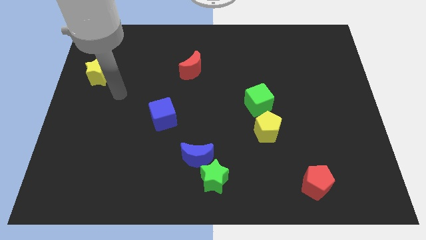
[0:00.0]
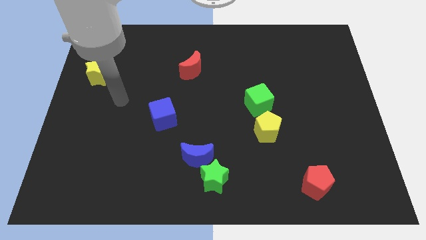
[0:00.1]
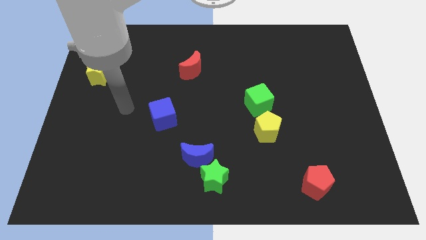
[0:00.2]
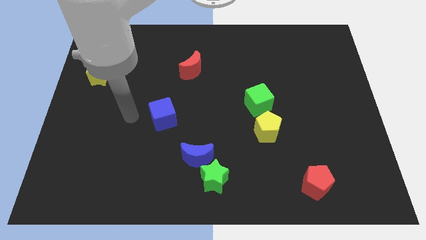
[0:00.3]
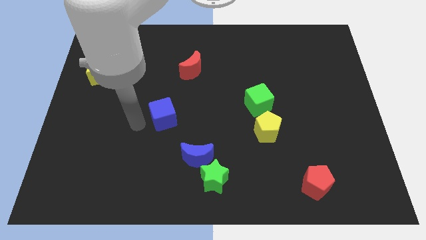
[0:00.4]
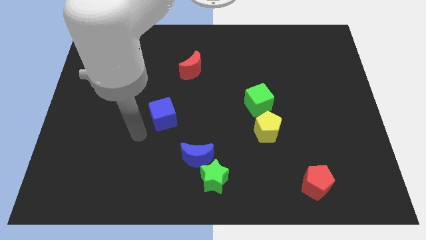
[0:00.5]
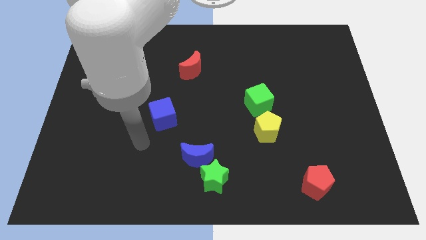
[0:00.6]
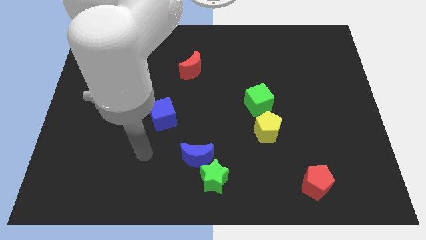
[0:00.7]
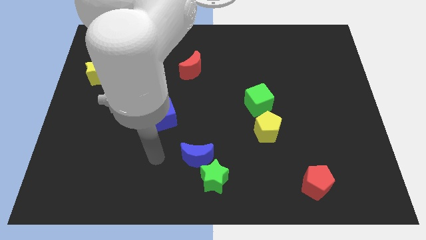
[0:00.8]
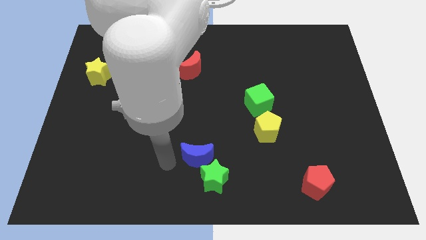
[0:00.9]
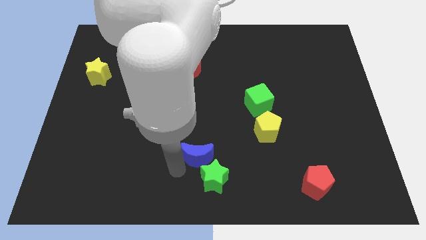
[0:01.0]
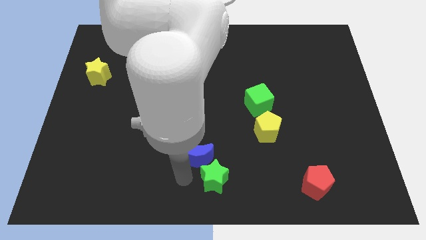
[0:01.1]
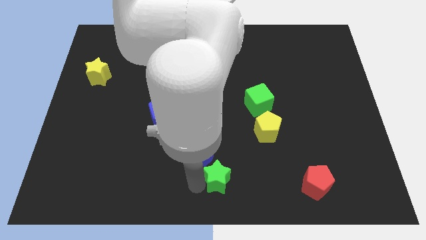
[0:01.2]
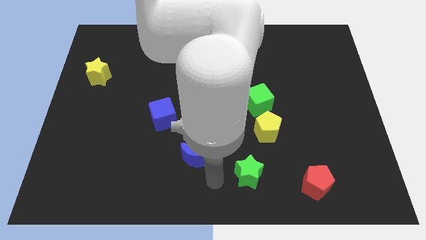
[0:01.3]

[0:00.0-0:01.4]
pull the blue moon apart from the green star

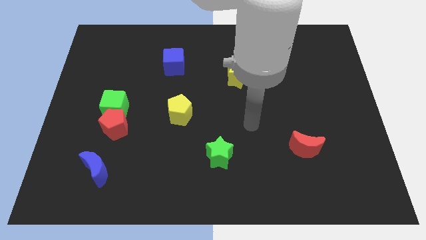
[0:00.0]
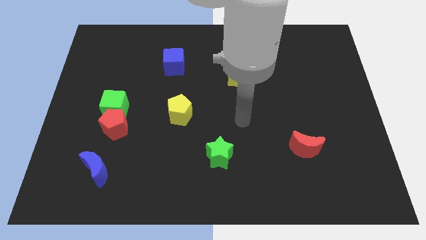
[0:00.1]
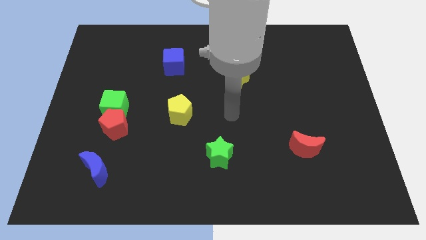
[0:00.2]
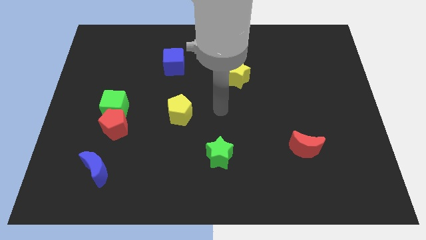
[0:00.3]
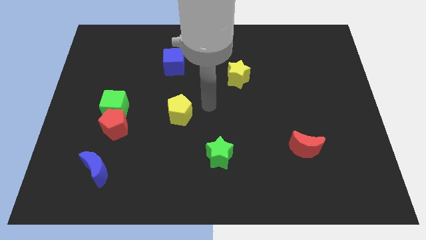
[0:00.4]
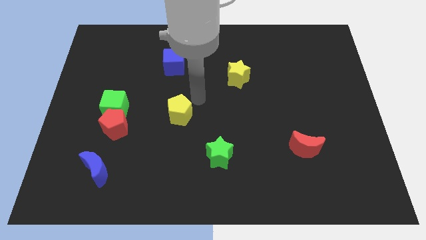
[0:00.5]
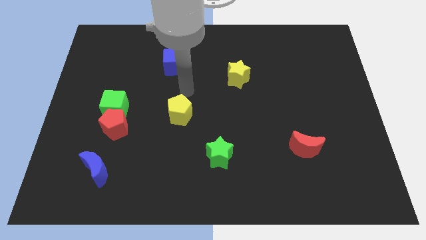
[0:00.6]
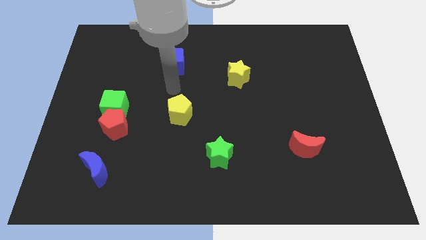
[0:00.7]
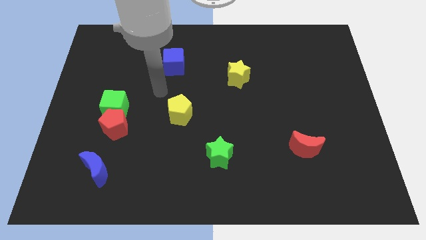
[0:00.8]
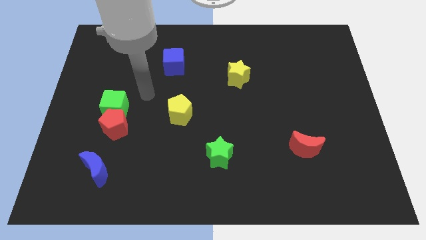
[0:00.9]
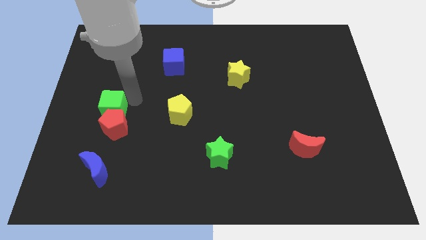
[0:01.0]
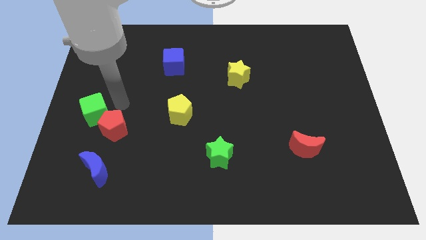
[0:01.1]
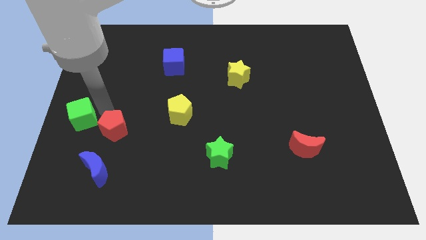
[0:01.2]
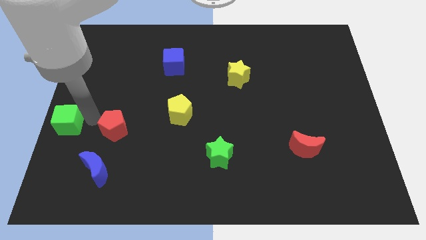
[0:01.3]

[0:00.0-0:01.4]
separate the red pentagon from the green cube

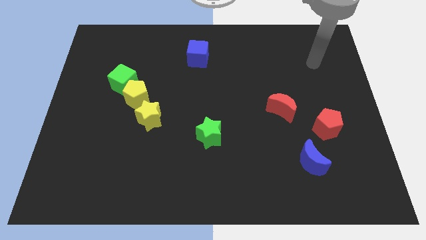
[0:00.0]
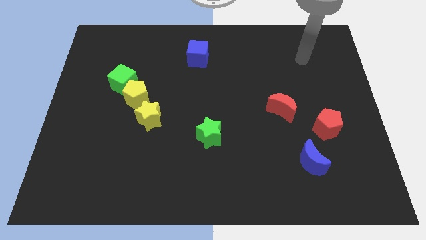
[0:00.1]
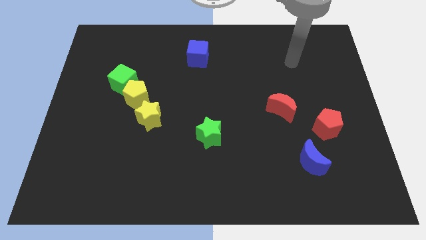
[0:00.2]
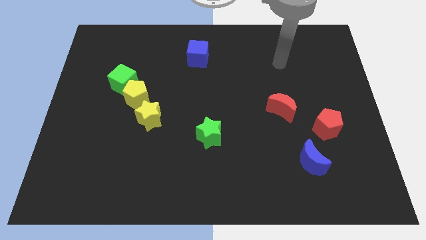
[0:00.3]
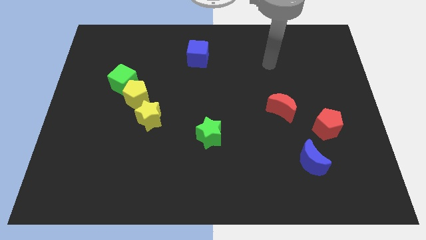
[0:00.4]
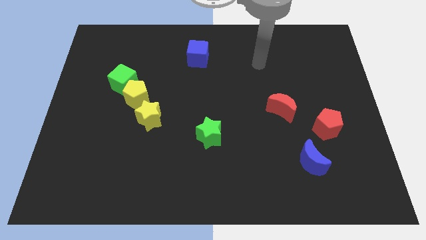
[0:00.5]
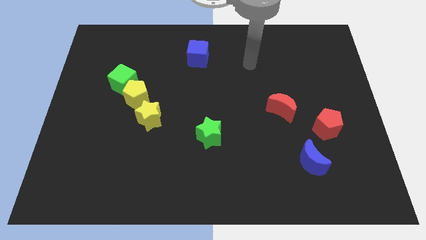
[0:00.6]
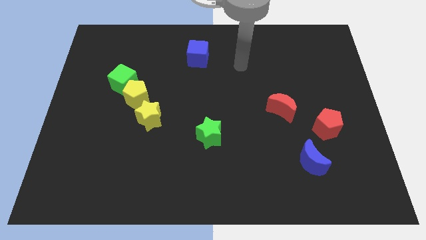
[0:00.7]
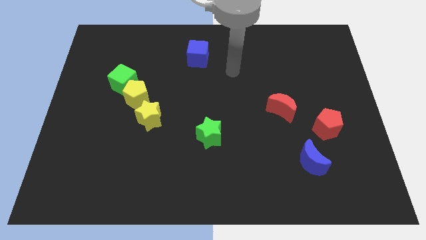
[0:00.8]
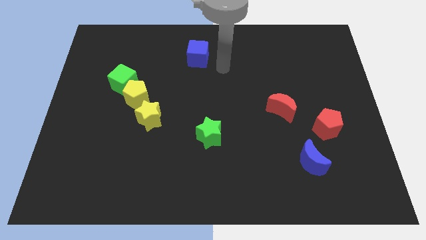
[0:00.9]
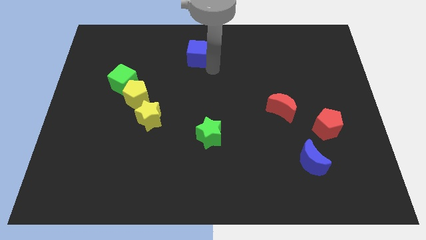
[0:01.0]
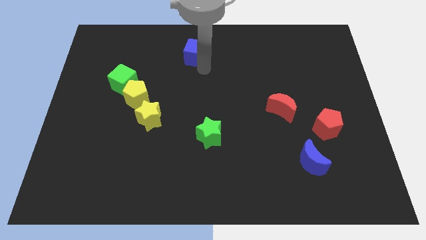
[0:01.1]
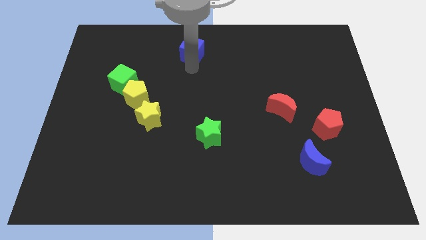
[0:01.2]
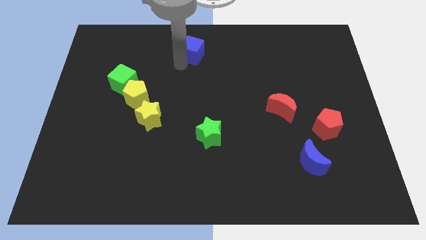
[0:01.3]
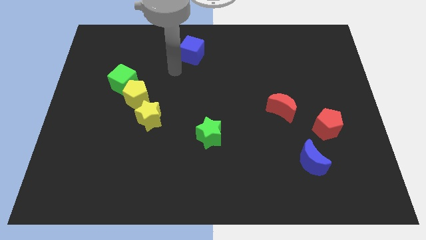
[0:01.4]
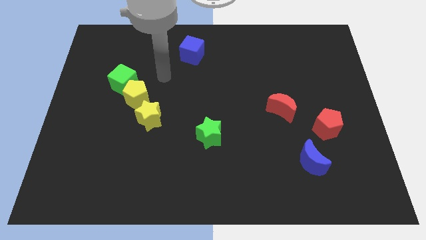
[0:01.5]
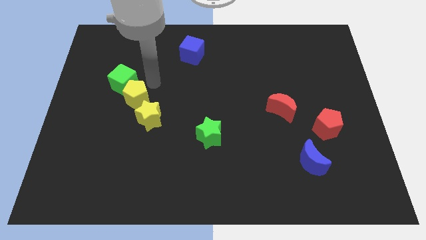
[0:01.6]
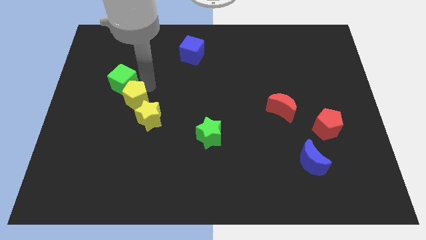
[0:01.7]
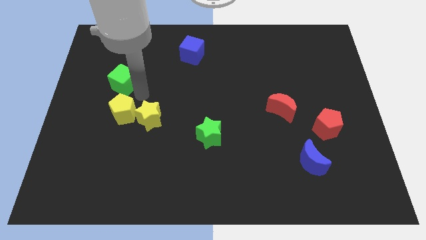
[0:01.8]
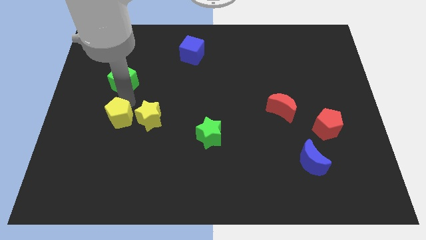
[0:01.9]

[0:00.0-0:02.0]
pull the green cube apart from the yellow pentagon

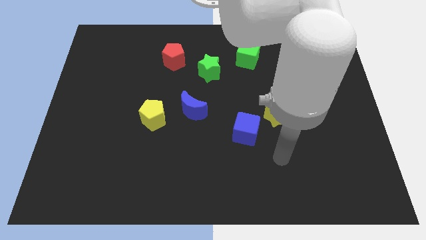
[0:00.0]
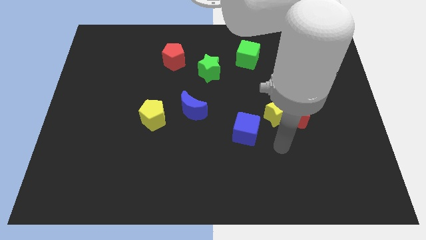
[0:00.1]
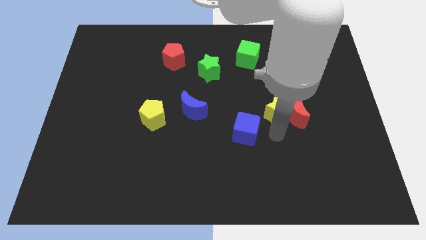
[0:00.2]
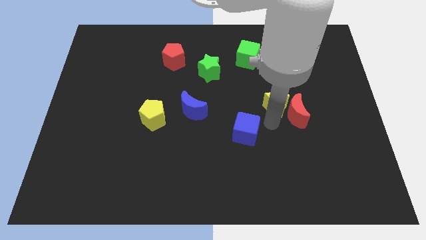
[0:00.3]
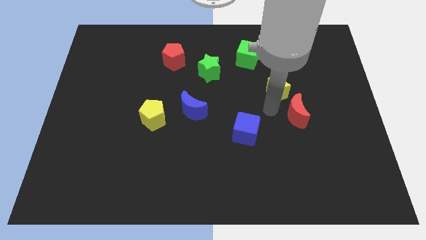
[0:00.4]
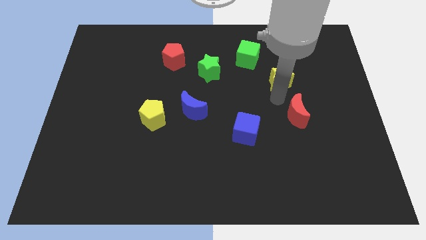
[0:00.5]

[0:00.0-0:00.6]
move the red moon away from the yellow star

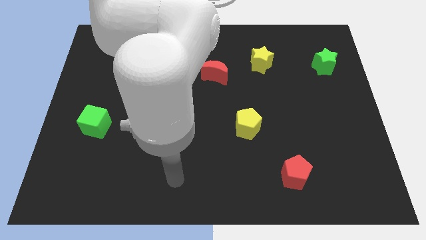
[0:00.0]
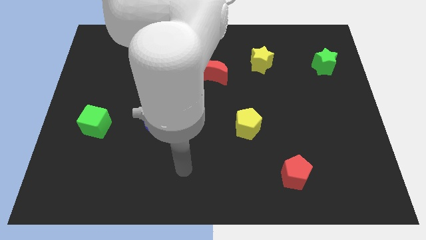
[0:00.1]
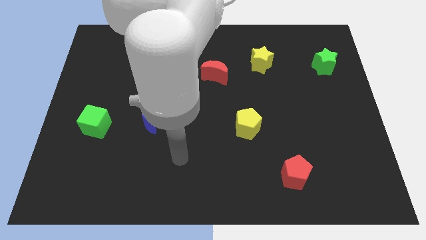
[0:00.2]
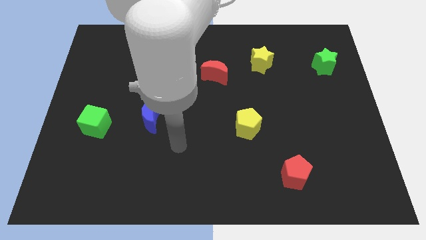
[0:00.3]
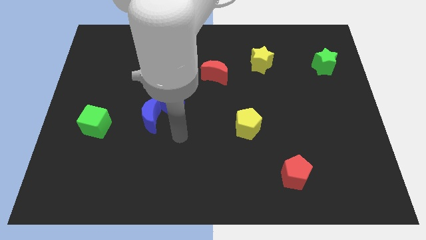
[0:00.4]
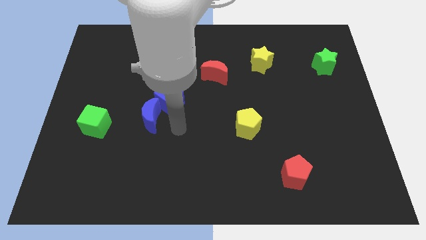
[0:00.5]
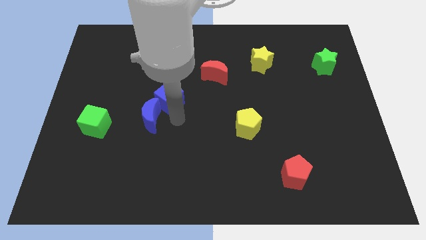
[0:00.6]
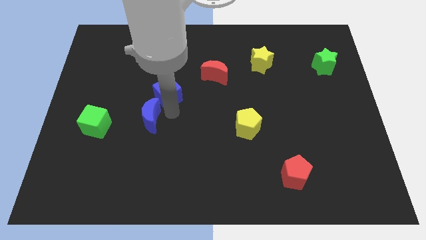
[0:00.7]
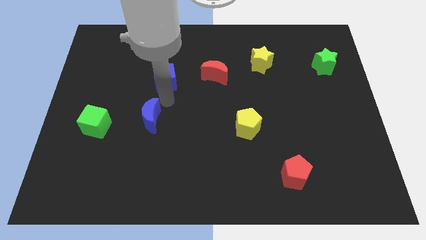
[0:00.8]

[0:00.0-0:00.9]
separate the blue moon from the blue cube

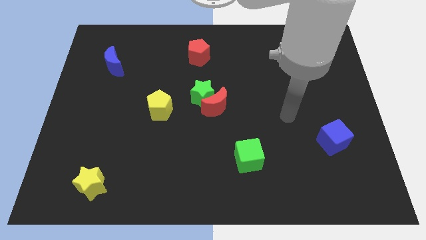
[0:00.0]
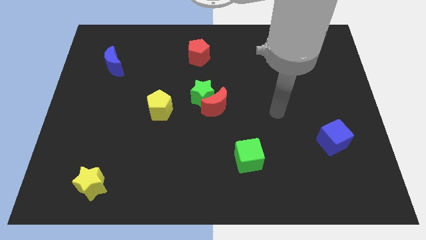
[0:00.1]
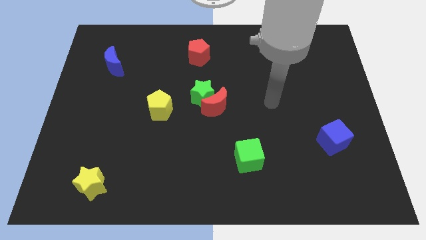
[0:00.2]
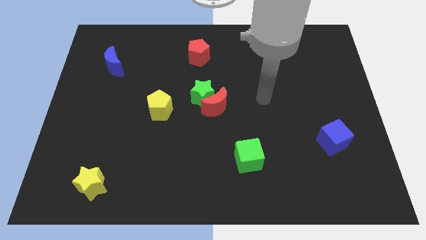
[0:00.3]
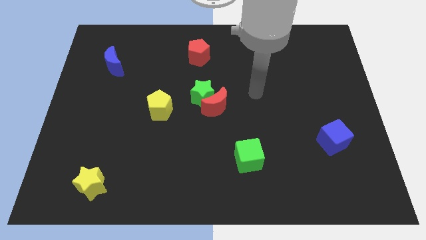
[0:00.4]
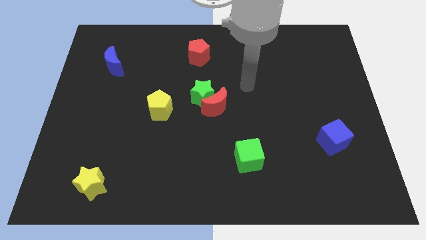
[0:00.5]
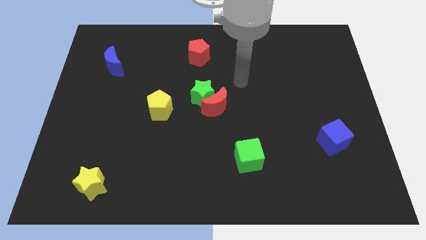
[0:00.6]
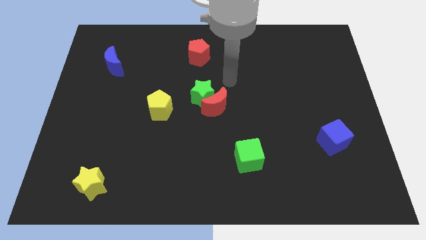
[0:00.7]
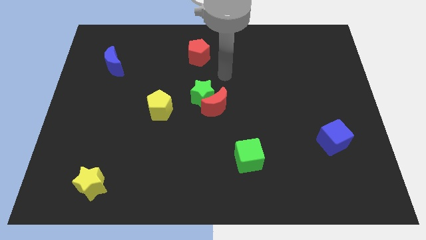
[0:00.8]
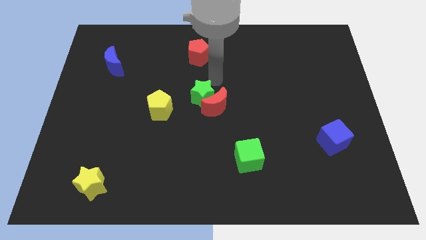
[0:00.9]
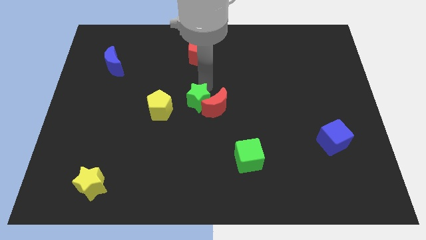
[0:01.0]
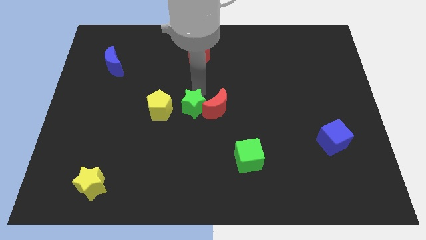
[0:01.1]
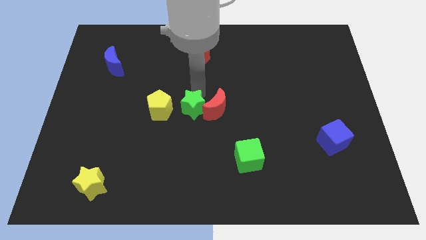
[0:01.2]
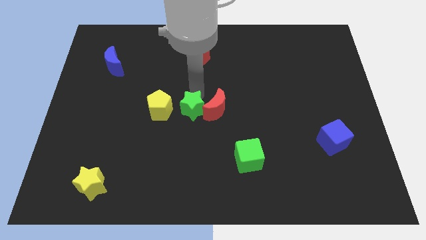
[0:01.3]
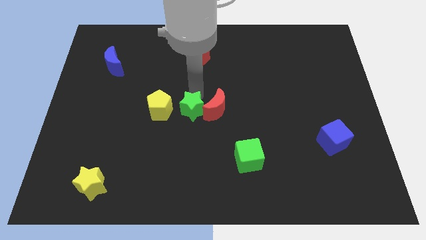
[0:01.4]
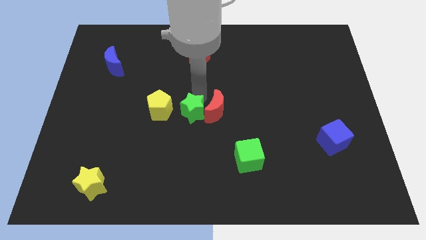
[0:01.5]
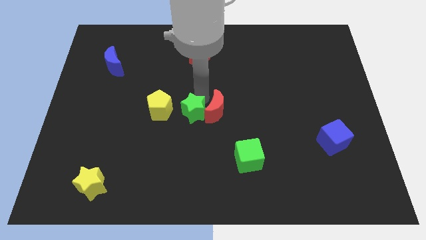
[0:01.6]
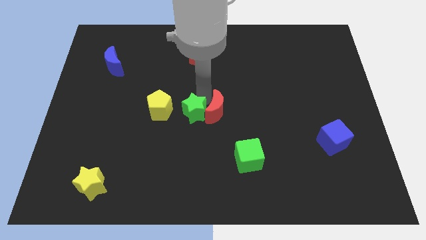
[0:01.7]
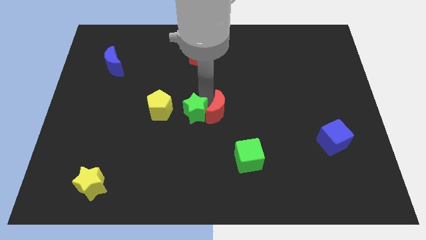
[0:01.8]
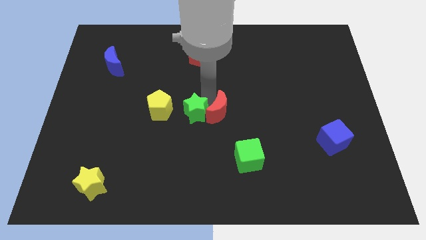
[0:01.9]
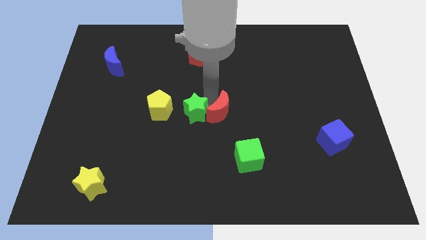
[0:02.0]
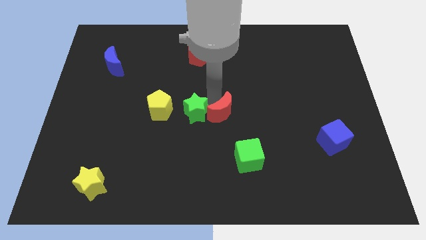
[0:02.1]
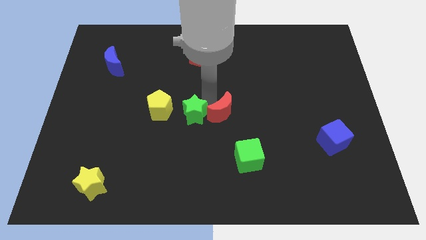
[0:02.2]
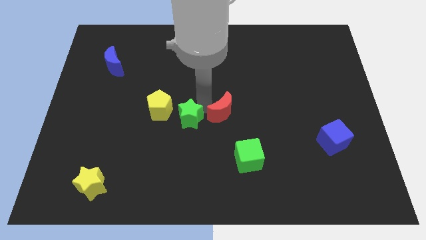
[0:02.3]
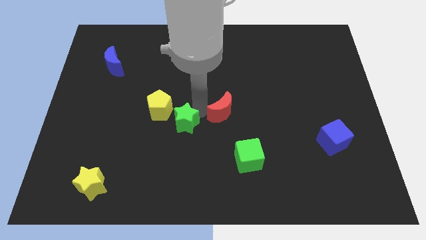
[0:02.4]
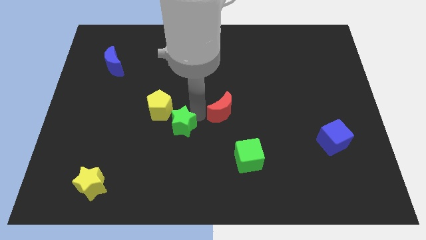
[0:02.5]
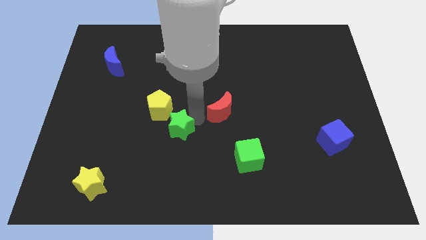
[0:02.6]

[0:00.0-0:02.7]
separate the red moon from the green star

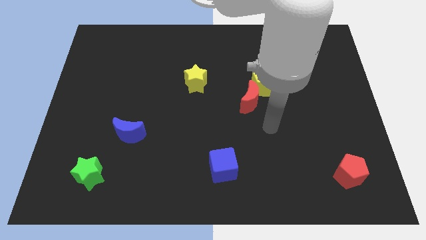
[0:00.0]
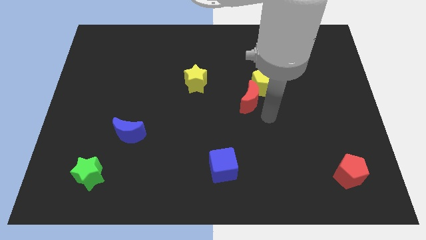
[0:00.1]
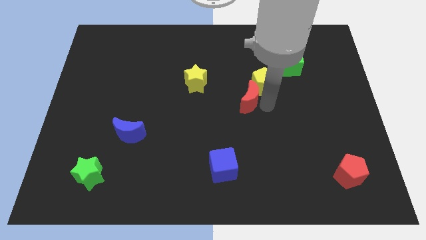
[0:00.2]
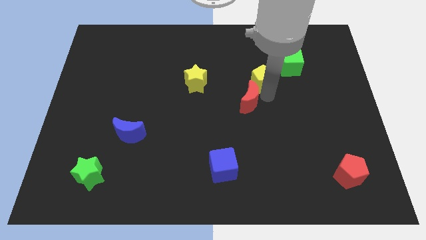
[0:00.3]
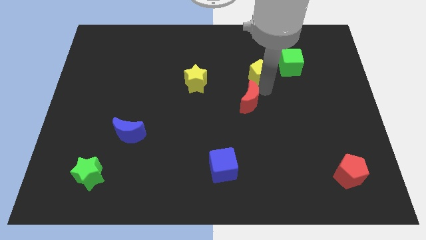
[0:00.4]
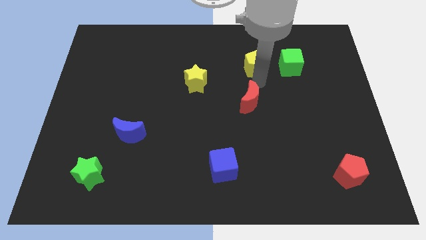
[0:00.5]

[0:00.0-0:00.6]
separate the red moon from the yellow pentagon
